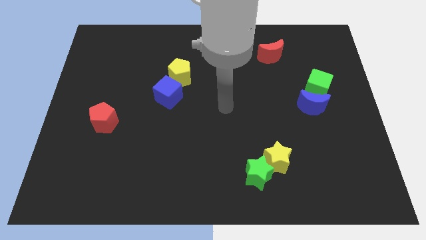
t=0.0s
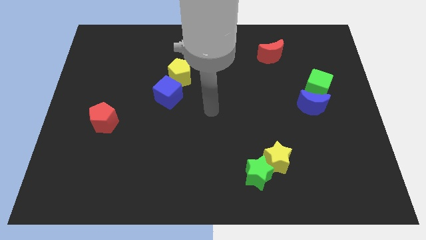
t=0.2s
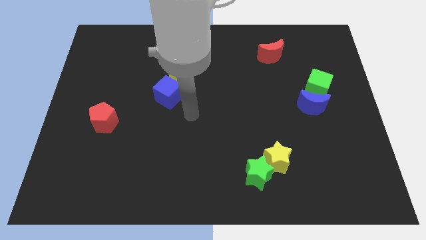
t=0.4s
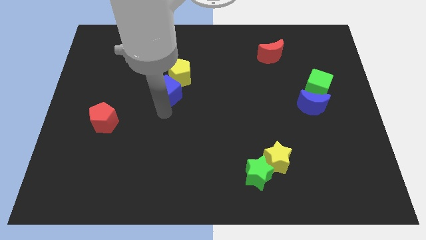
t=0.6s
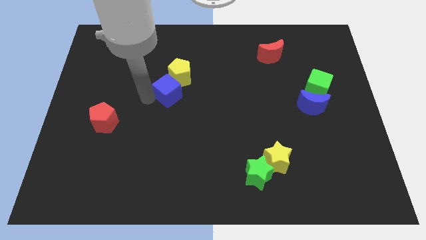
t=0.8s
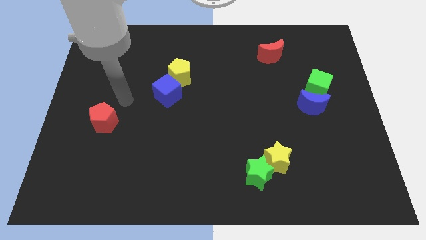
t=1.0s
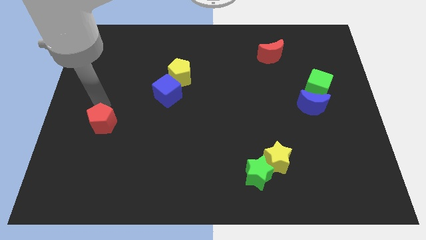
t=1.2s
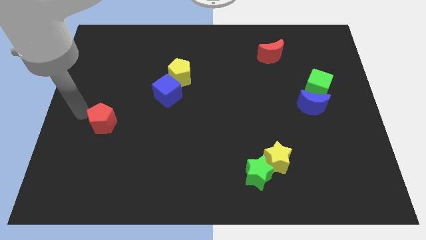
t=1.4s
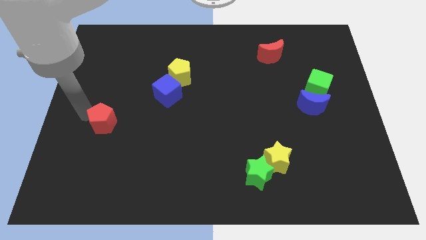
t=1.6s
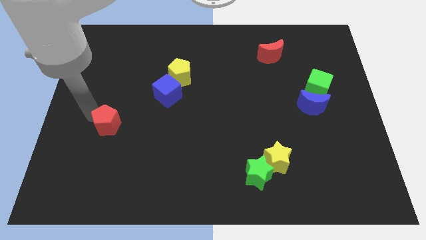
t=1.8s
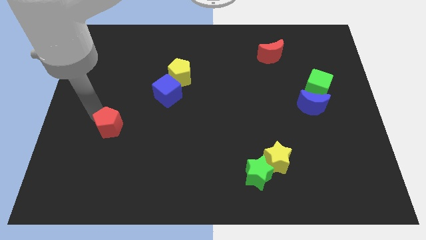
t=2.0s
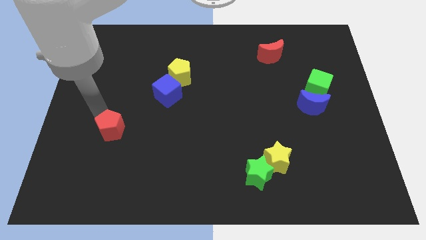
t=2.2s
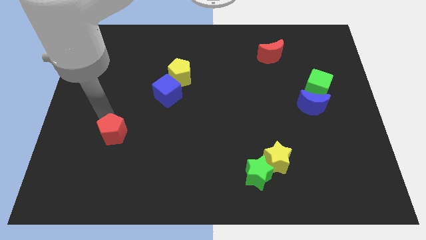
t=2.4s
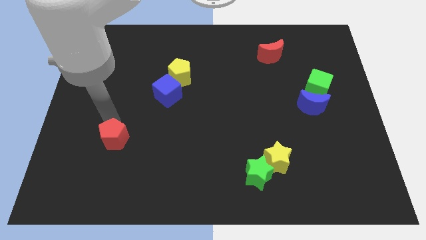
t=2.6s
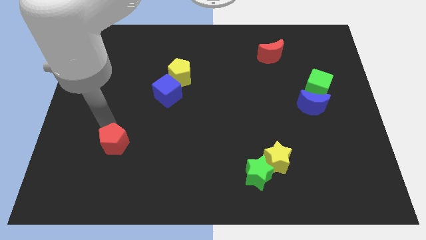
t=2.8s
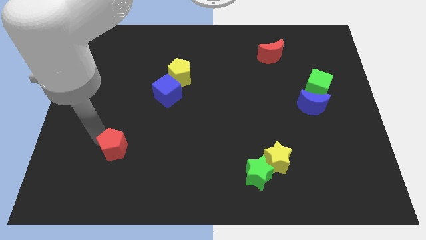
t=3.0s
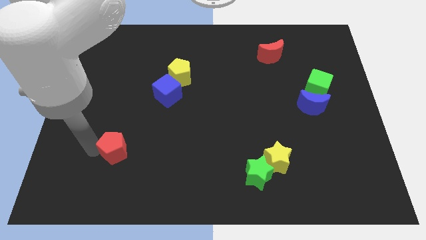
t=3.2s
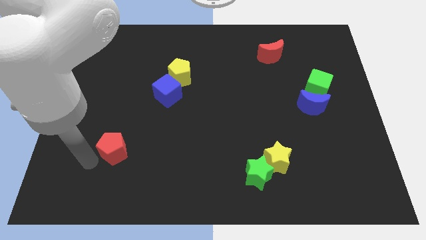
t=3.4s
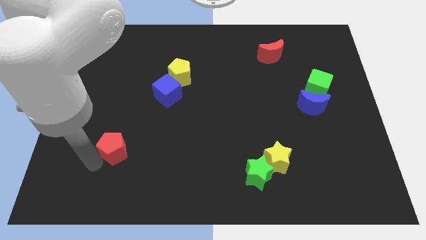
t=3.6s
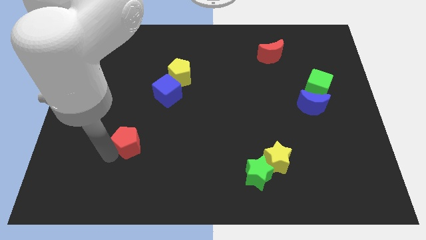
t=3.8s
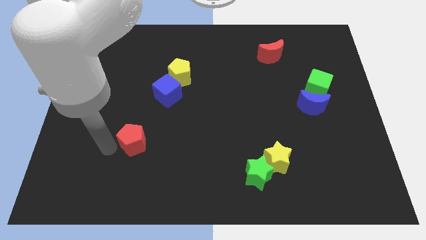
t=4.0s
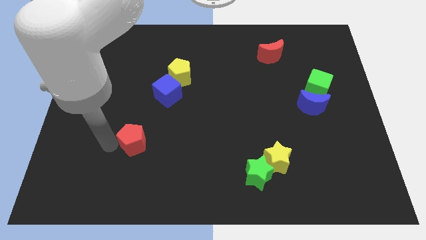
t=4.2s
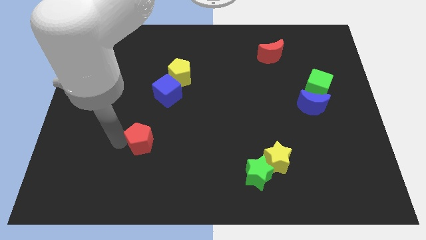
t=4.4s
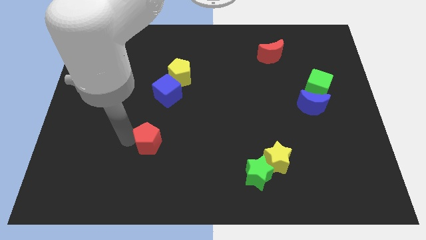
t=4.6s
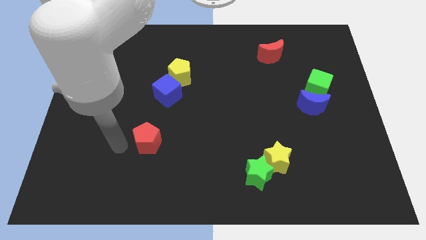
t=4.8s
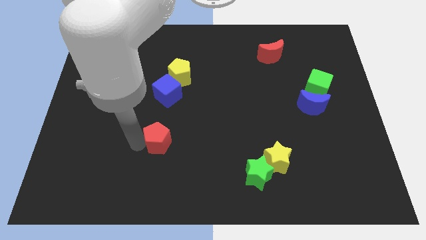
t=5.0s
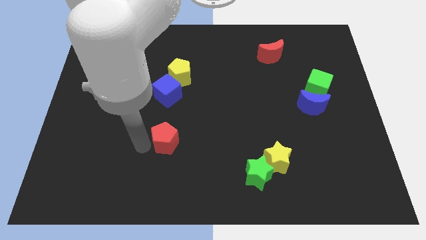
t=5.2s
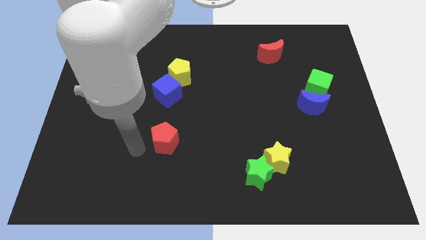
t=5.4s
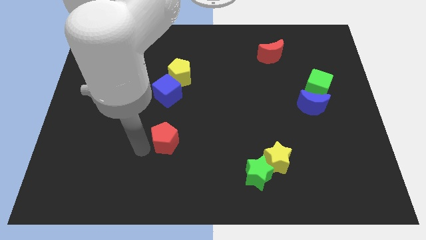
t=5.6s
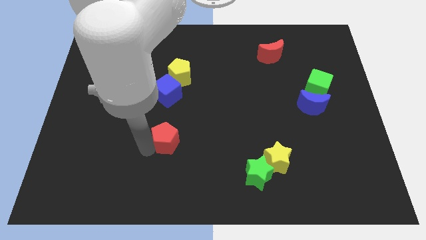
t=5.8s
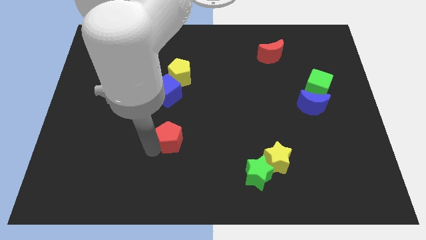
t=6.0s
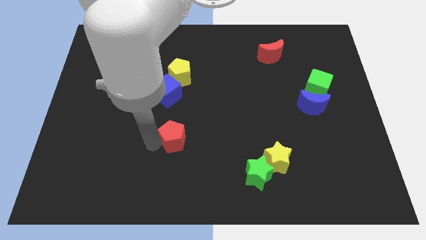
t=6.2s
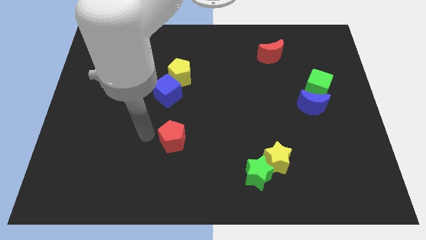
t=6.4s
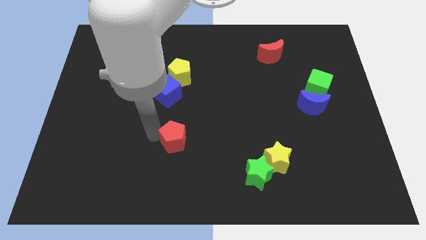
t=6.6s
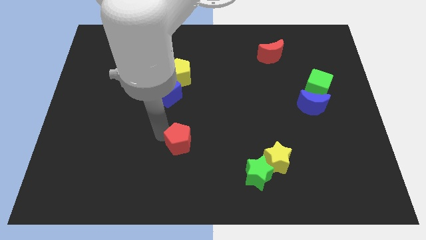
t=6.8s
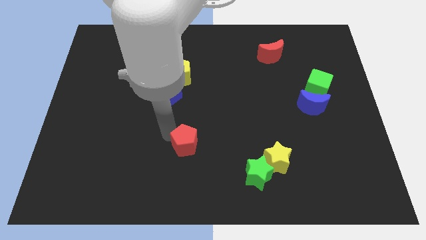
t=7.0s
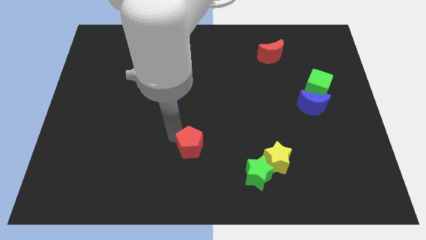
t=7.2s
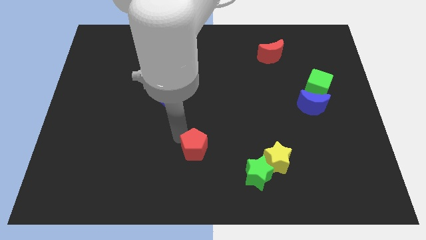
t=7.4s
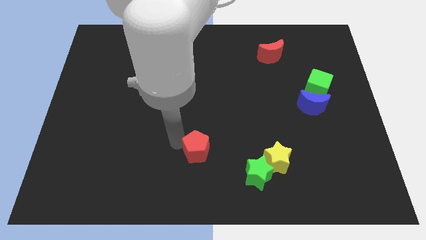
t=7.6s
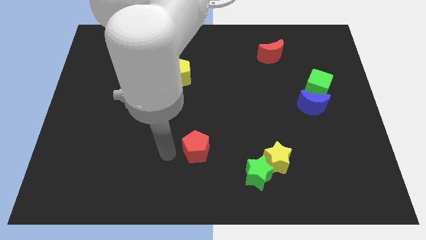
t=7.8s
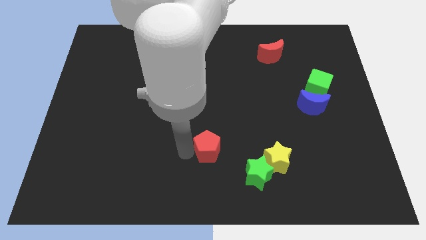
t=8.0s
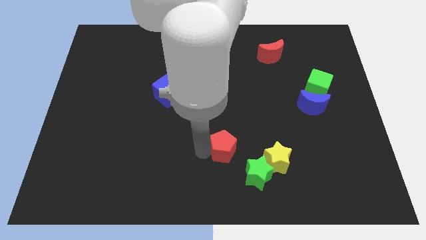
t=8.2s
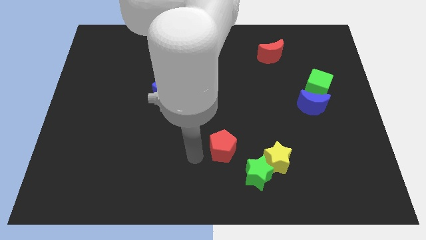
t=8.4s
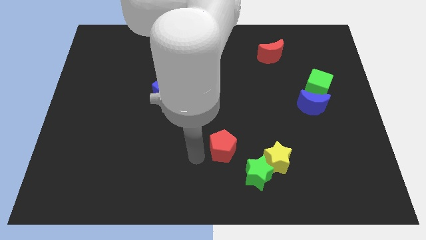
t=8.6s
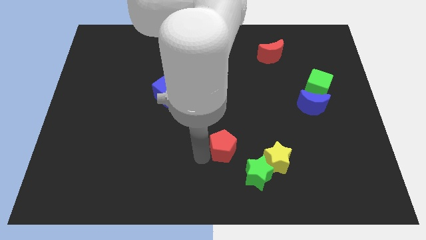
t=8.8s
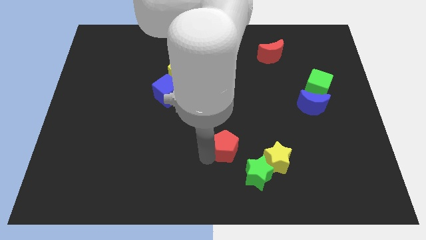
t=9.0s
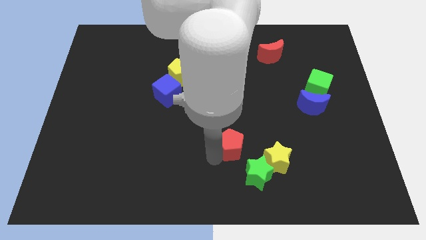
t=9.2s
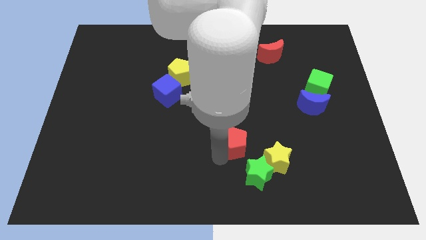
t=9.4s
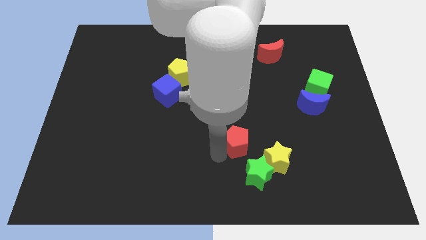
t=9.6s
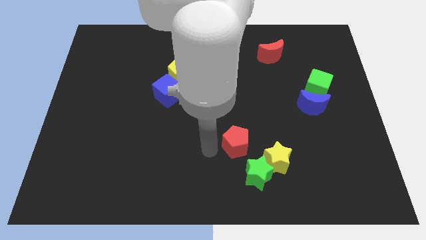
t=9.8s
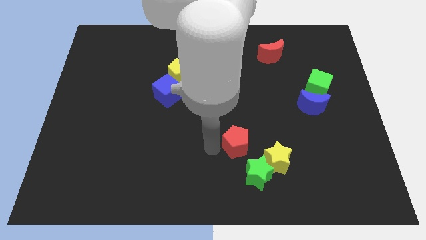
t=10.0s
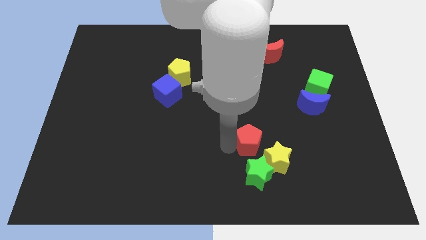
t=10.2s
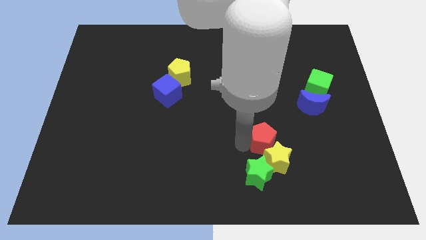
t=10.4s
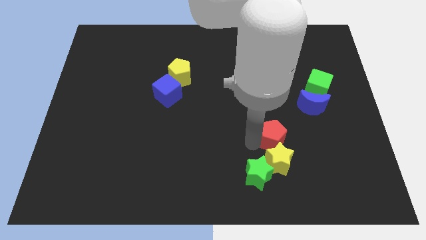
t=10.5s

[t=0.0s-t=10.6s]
push the red pentagon to the top right of the yellow star

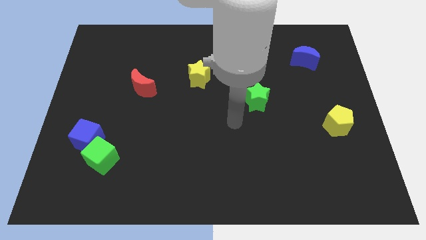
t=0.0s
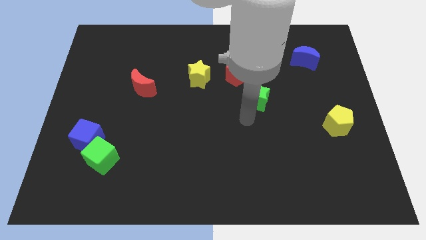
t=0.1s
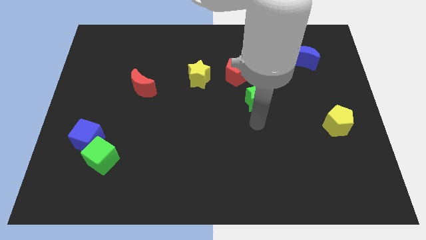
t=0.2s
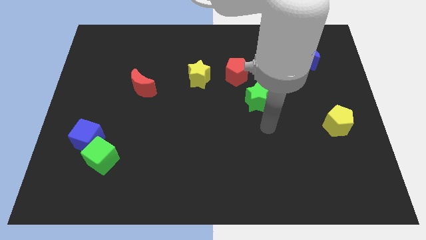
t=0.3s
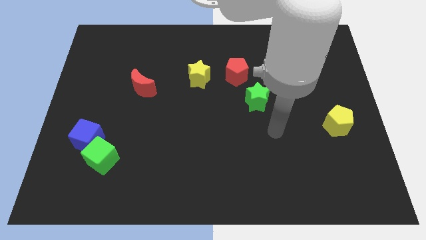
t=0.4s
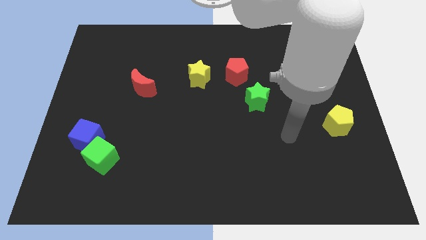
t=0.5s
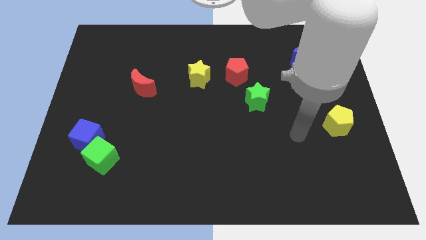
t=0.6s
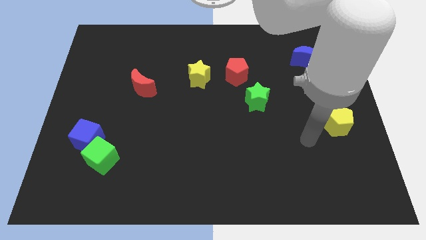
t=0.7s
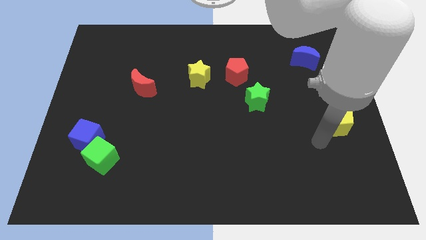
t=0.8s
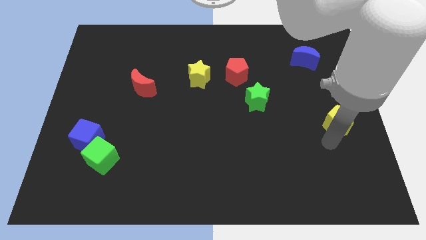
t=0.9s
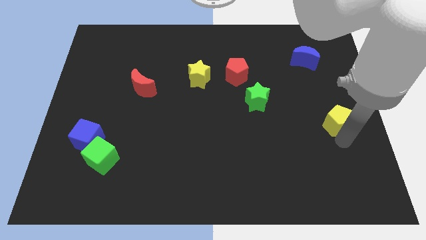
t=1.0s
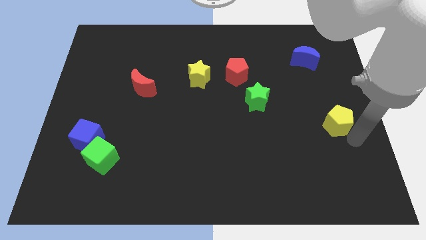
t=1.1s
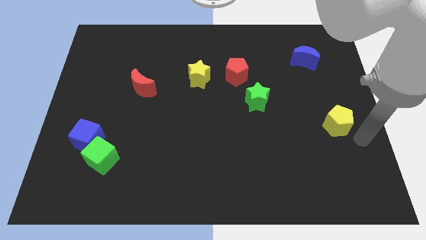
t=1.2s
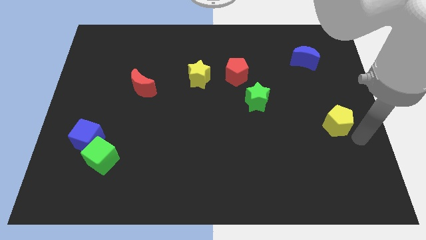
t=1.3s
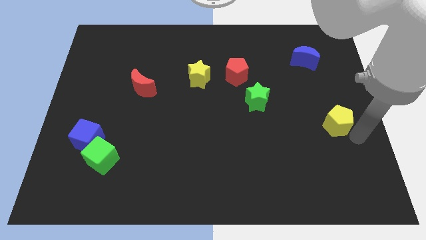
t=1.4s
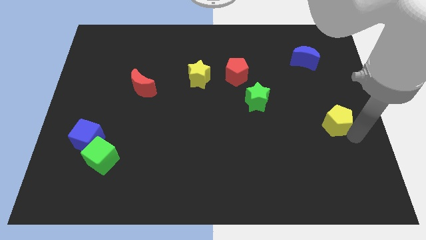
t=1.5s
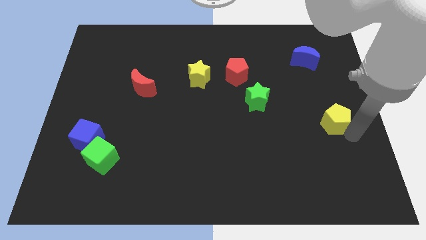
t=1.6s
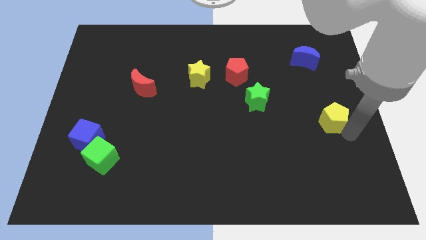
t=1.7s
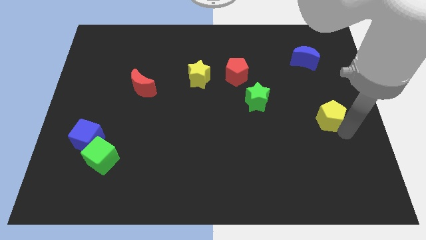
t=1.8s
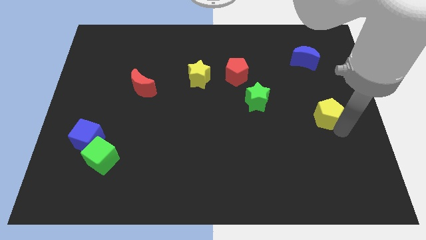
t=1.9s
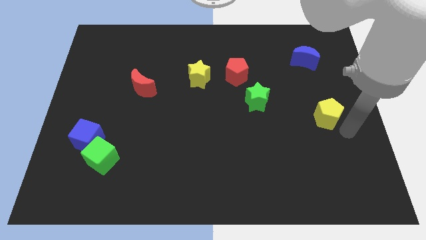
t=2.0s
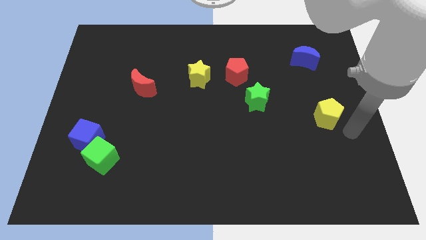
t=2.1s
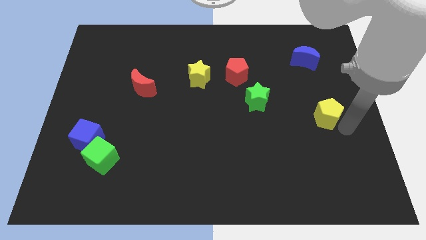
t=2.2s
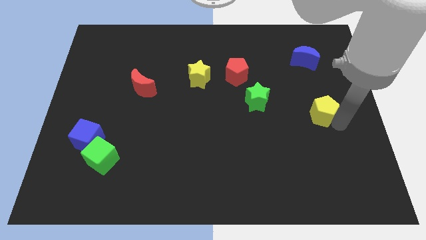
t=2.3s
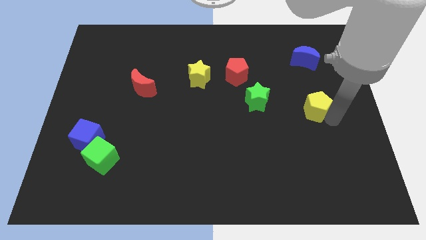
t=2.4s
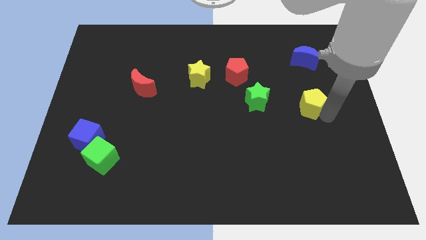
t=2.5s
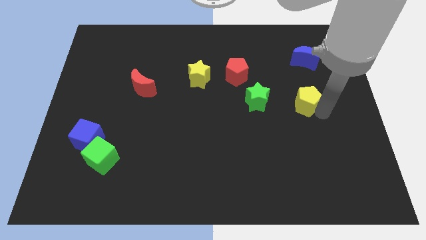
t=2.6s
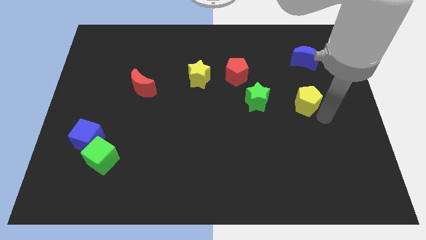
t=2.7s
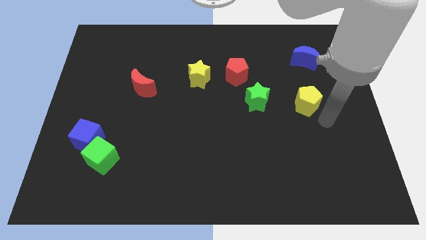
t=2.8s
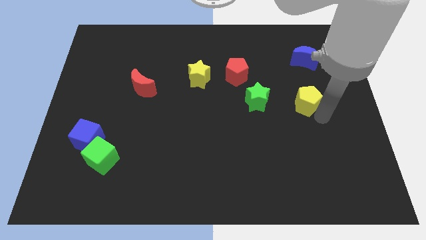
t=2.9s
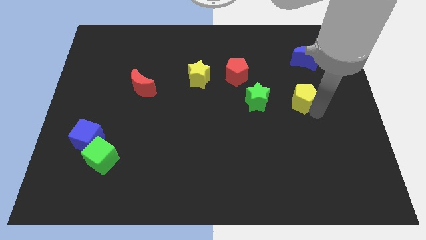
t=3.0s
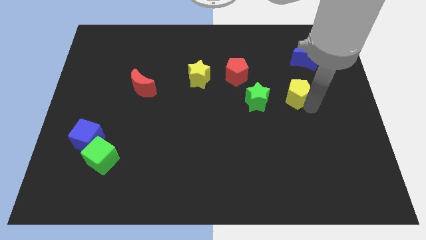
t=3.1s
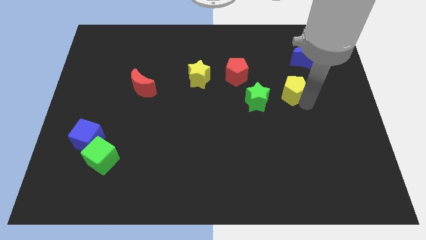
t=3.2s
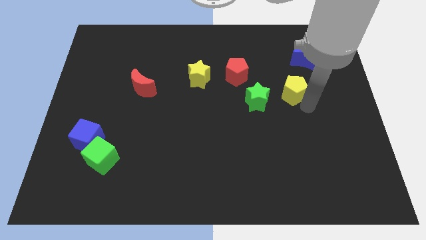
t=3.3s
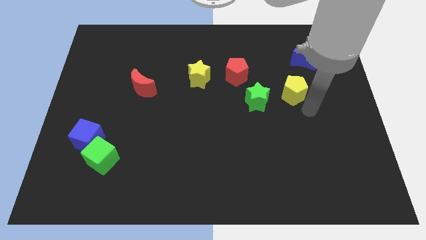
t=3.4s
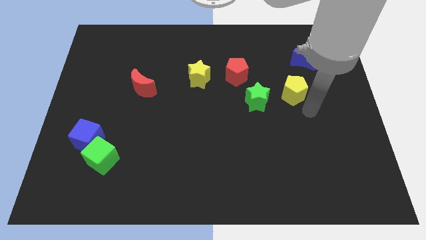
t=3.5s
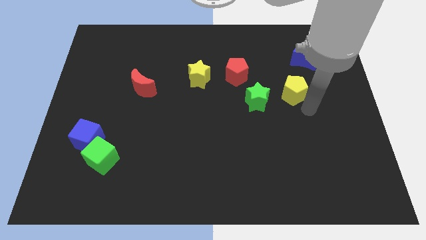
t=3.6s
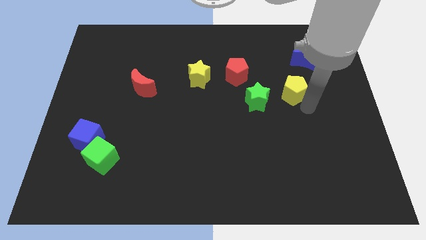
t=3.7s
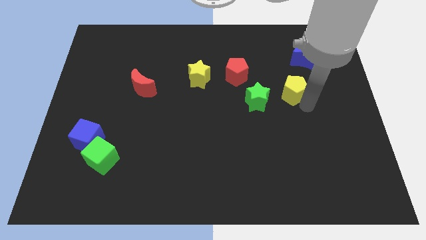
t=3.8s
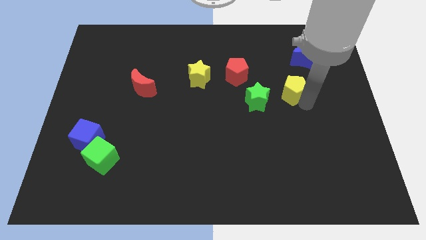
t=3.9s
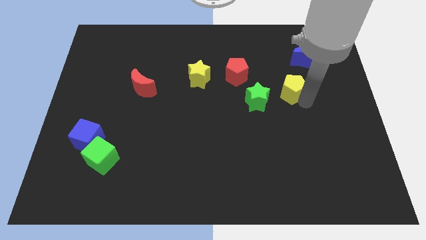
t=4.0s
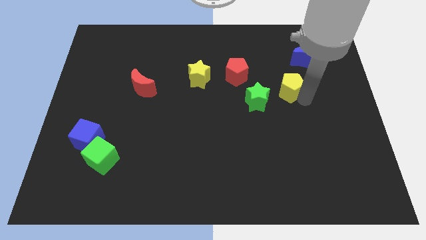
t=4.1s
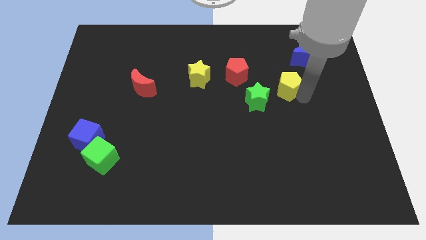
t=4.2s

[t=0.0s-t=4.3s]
slide the yellow pentagon to the right of the red pentagon
